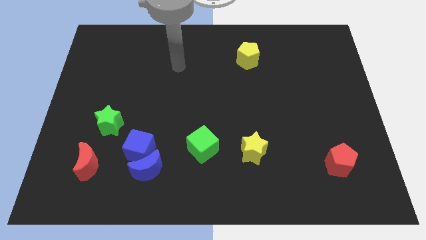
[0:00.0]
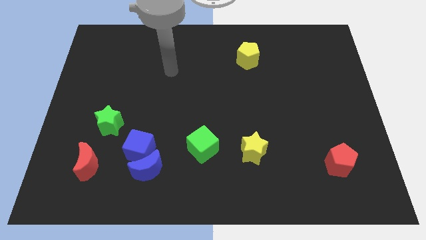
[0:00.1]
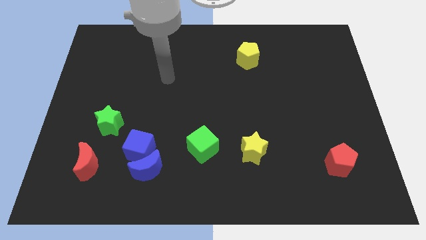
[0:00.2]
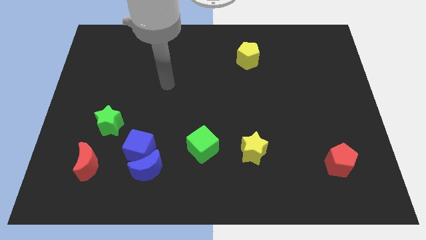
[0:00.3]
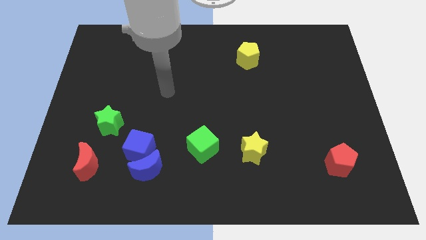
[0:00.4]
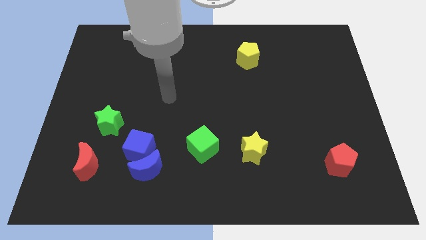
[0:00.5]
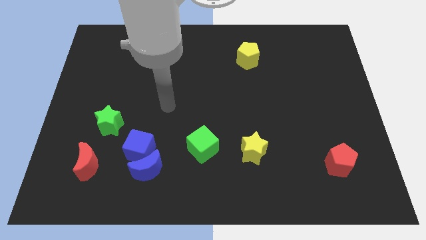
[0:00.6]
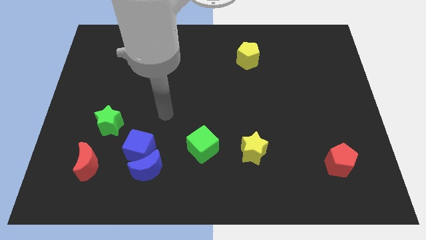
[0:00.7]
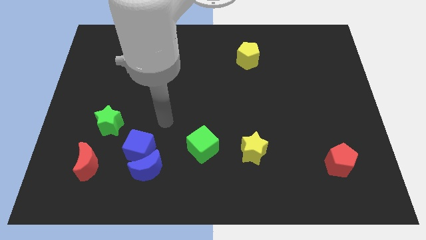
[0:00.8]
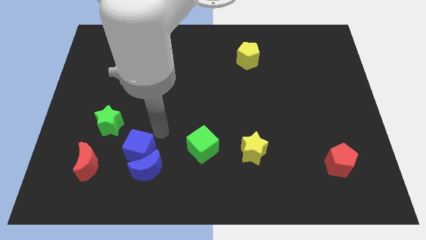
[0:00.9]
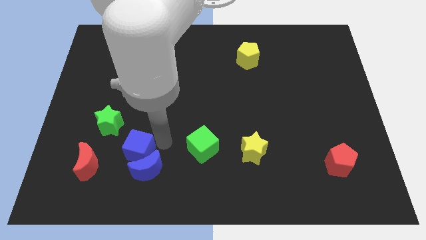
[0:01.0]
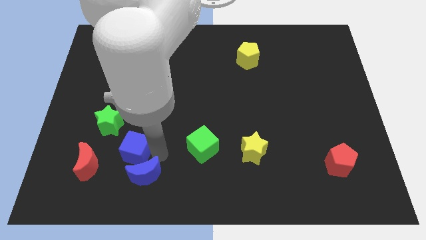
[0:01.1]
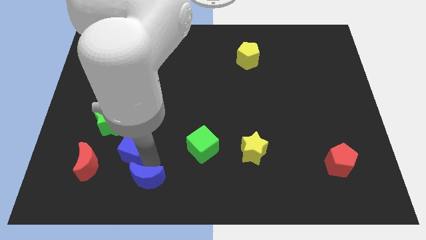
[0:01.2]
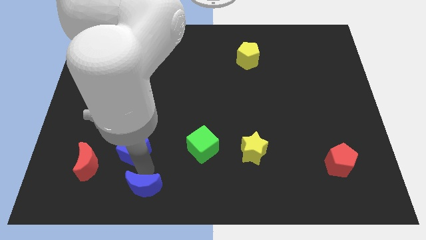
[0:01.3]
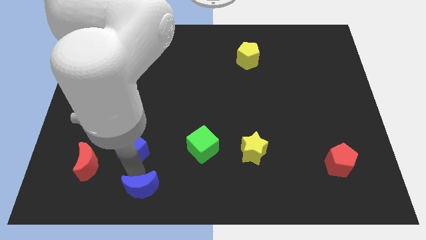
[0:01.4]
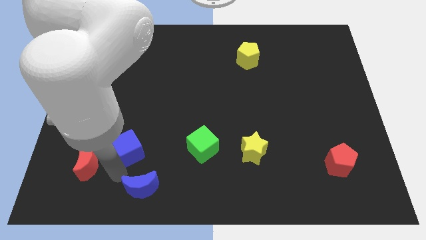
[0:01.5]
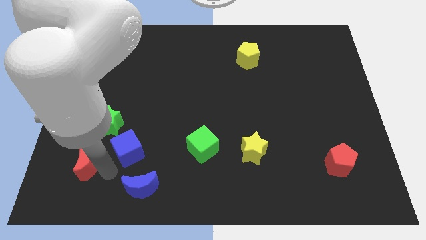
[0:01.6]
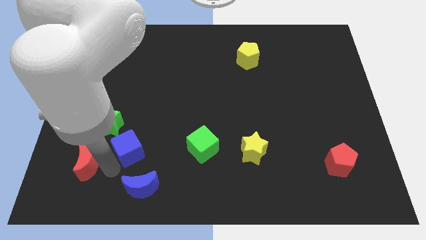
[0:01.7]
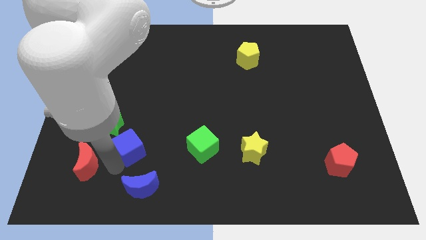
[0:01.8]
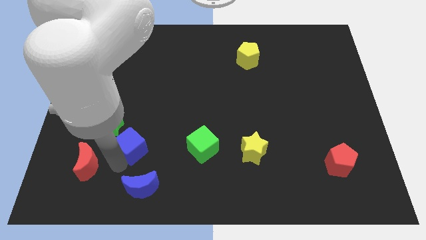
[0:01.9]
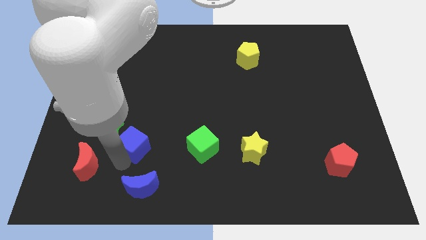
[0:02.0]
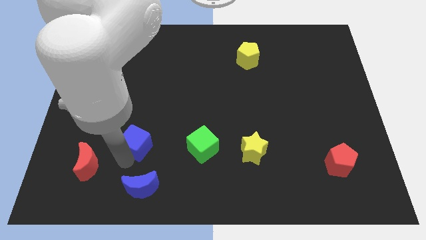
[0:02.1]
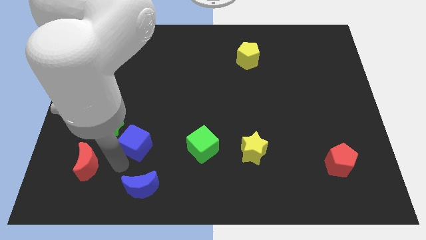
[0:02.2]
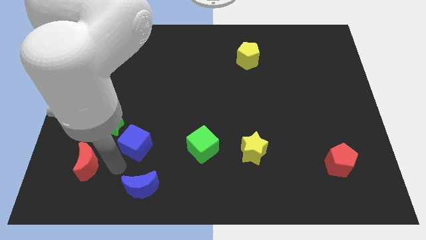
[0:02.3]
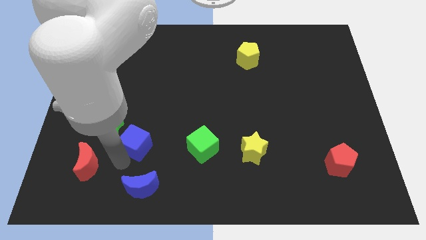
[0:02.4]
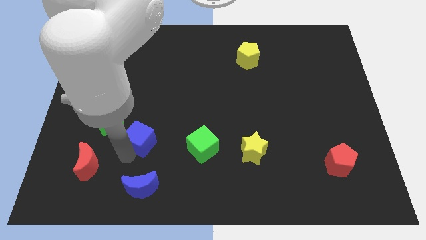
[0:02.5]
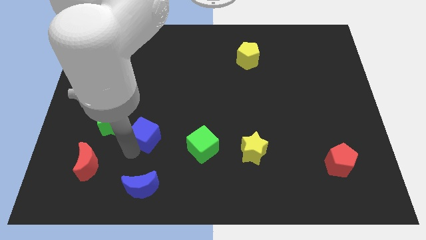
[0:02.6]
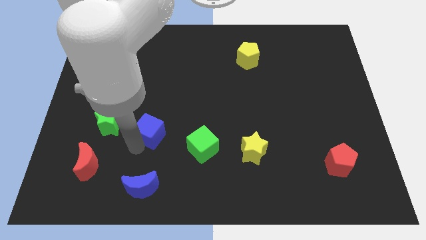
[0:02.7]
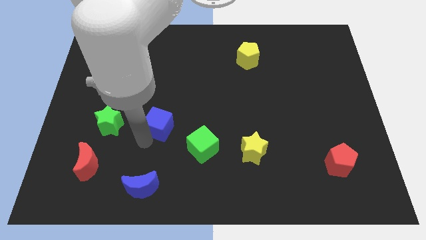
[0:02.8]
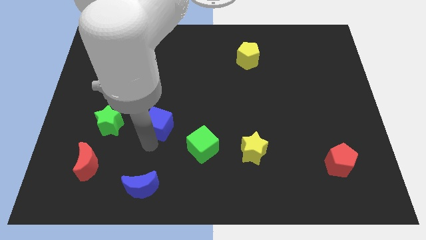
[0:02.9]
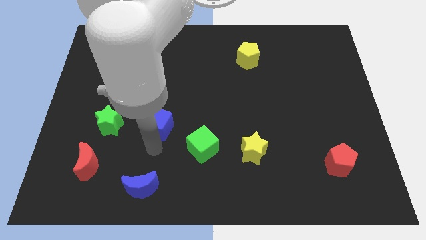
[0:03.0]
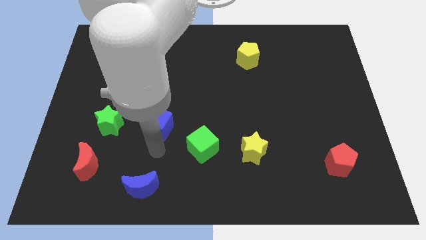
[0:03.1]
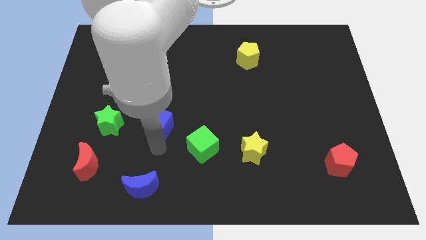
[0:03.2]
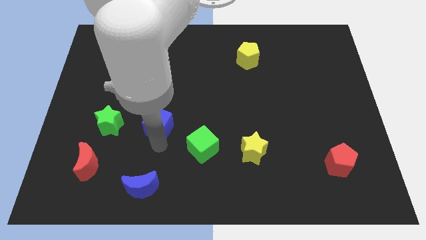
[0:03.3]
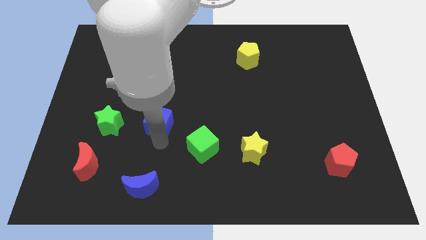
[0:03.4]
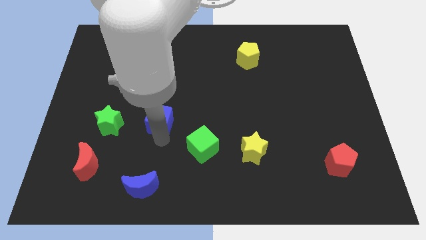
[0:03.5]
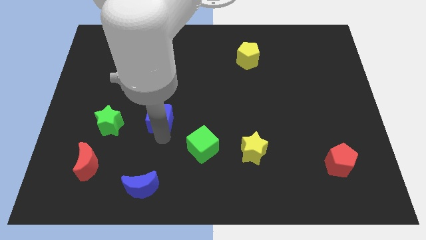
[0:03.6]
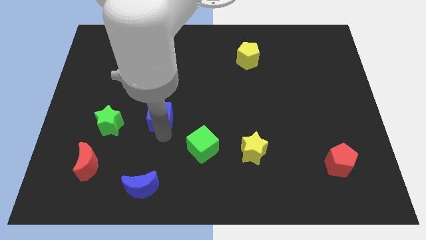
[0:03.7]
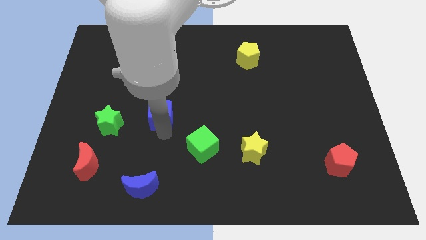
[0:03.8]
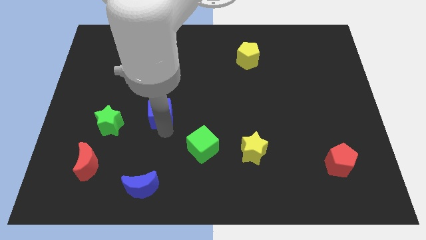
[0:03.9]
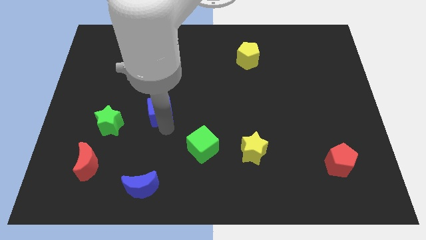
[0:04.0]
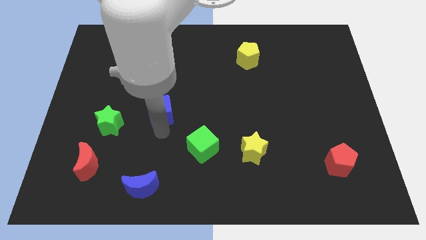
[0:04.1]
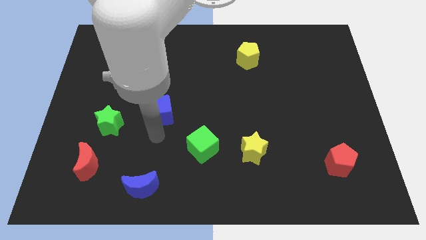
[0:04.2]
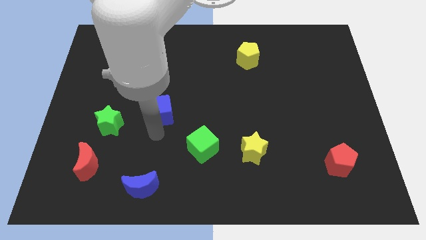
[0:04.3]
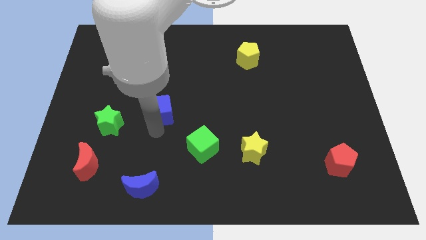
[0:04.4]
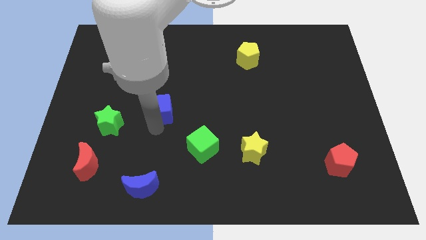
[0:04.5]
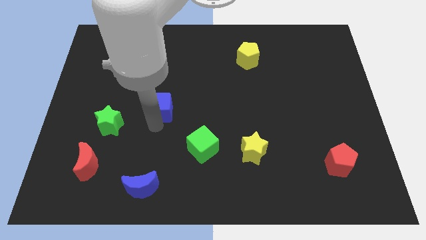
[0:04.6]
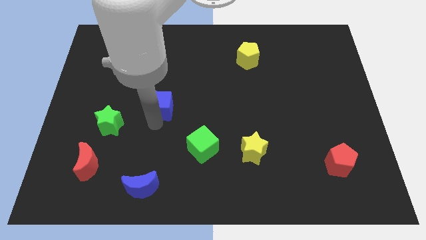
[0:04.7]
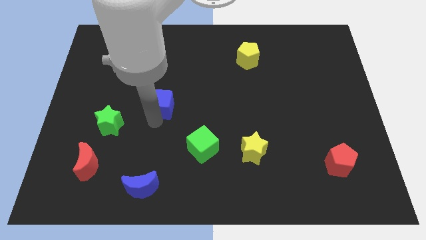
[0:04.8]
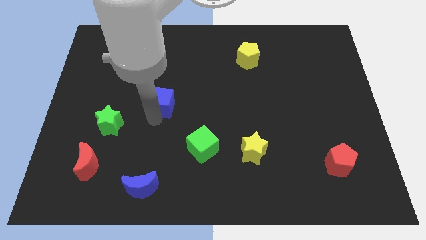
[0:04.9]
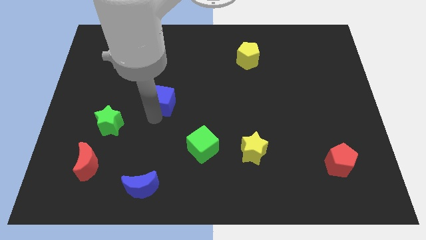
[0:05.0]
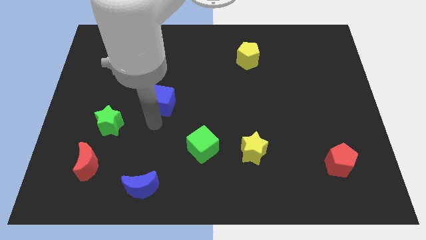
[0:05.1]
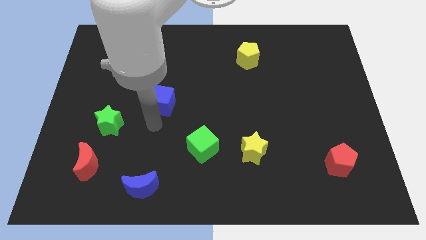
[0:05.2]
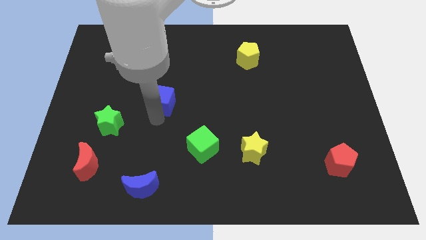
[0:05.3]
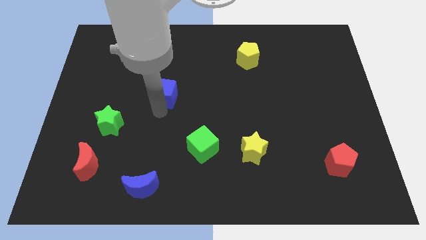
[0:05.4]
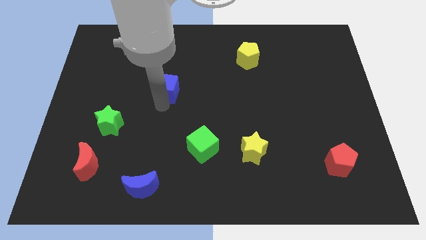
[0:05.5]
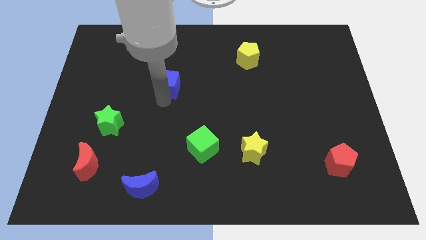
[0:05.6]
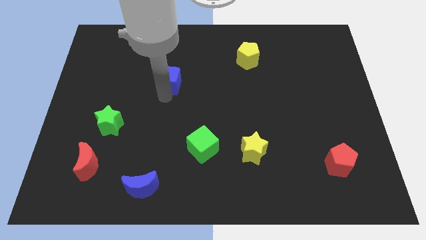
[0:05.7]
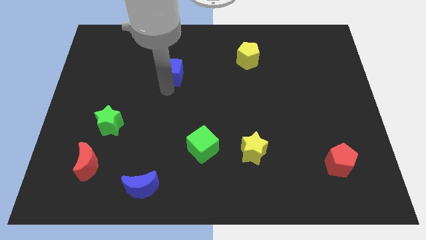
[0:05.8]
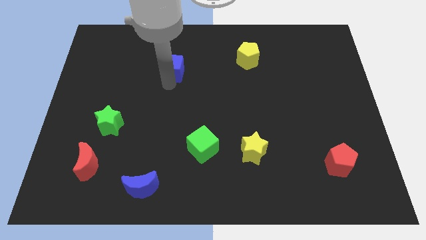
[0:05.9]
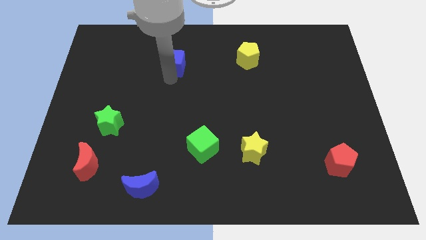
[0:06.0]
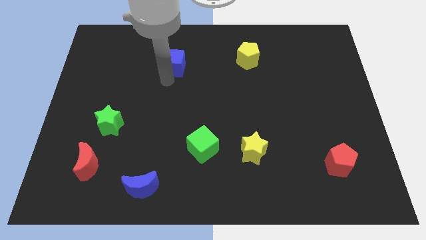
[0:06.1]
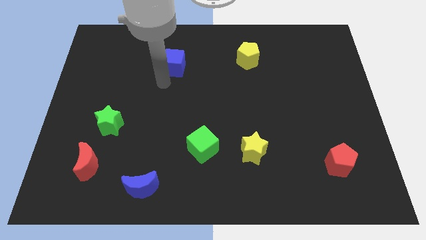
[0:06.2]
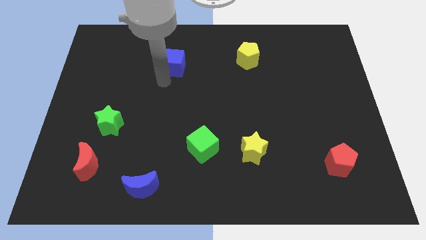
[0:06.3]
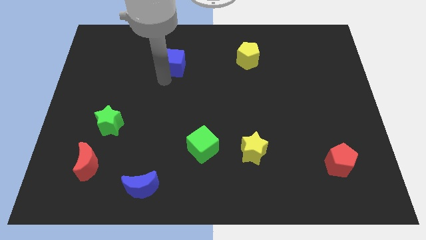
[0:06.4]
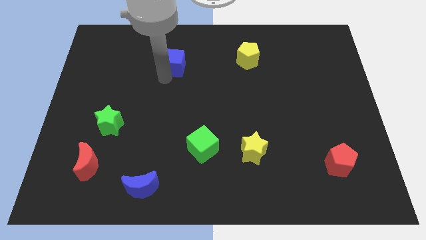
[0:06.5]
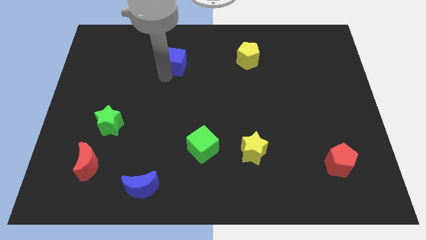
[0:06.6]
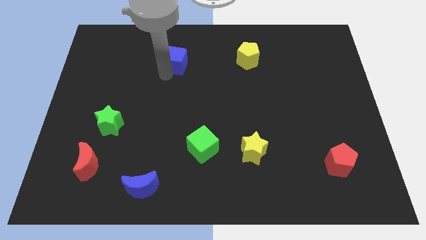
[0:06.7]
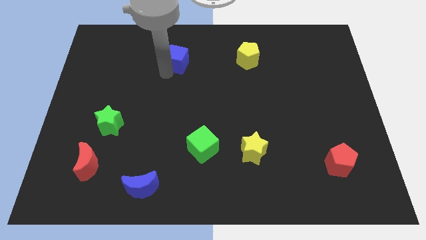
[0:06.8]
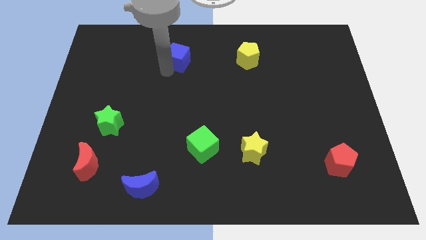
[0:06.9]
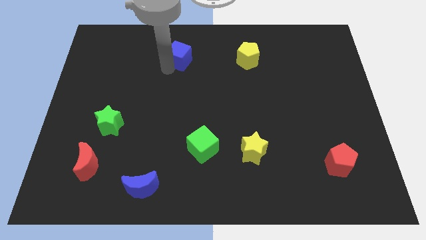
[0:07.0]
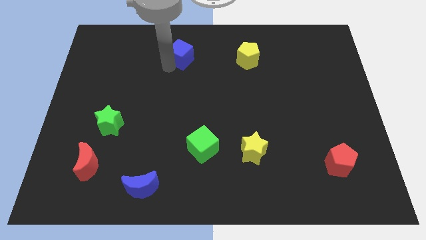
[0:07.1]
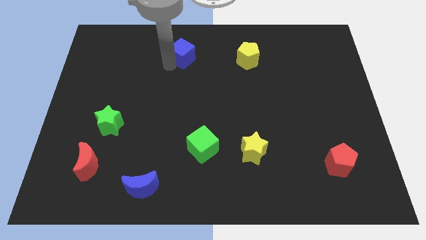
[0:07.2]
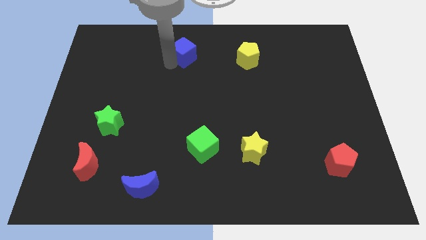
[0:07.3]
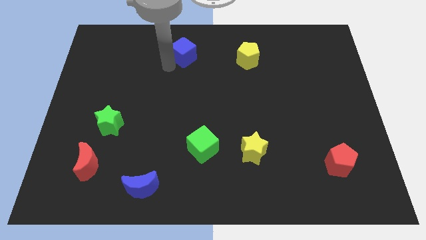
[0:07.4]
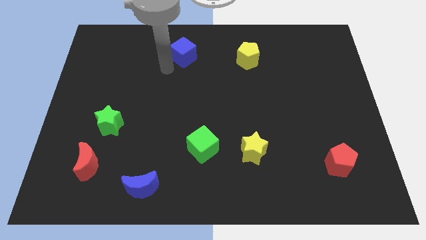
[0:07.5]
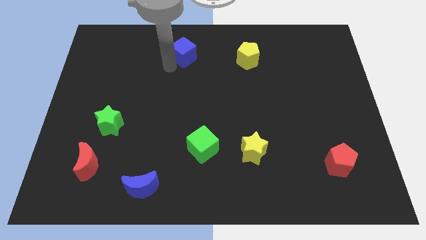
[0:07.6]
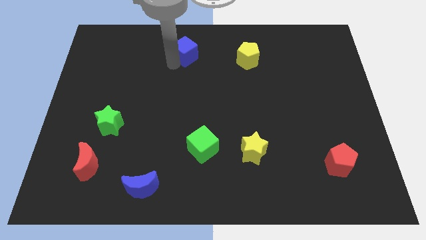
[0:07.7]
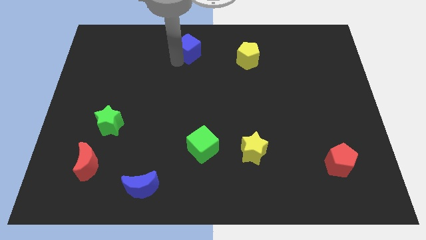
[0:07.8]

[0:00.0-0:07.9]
push the blue cube to the top

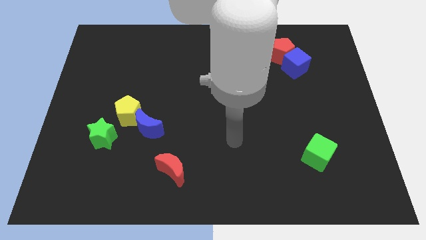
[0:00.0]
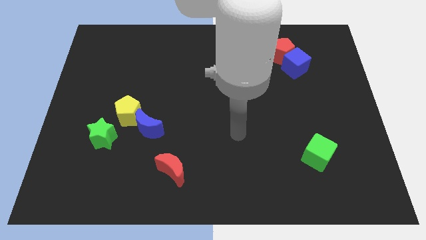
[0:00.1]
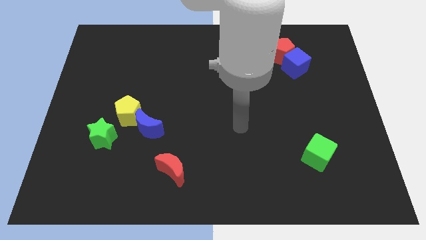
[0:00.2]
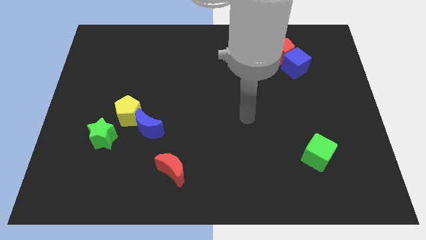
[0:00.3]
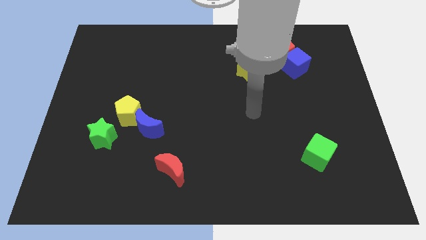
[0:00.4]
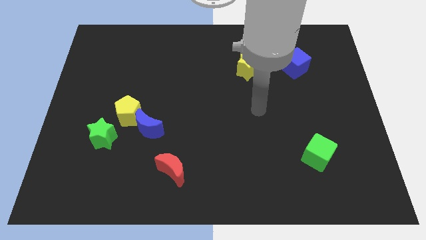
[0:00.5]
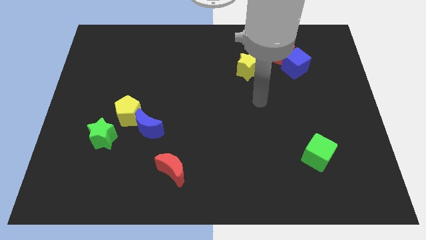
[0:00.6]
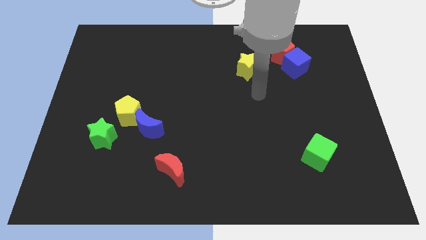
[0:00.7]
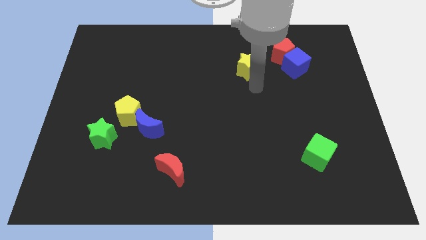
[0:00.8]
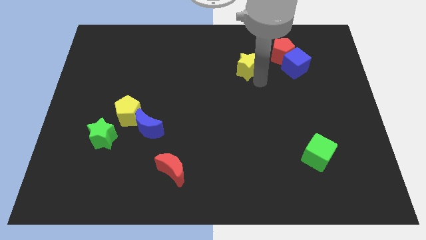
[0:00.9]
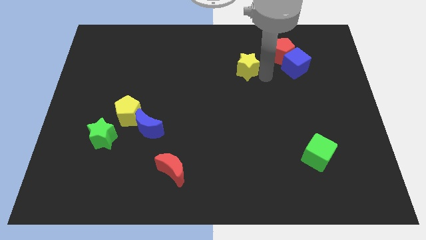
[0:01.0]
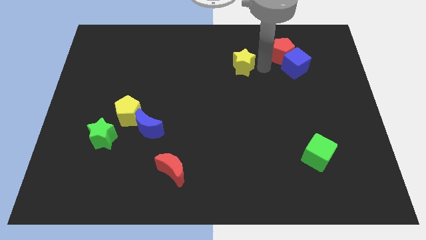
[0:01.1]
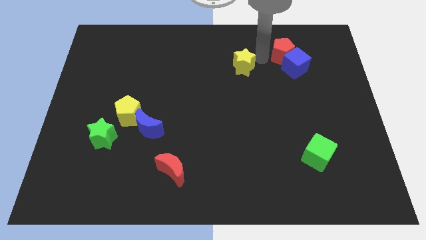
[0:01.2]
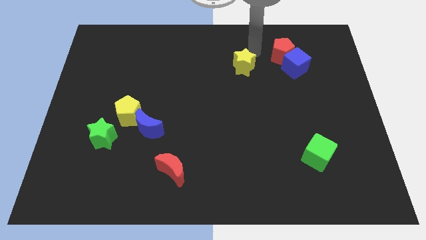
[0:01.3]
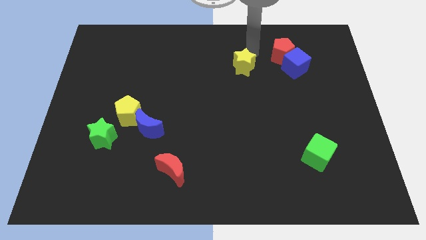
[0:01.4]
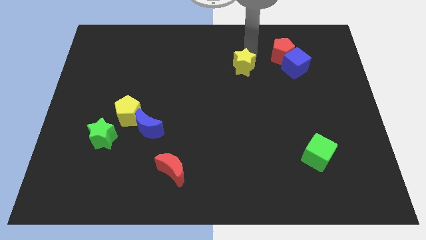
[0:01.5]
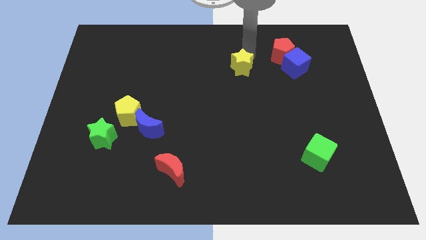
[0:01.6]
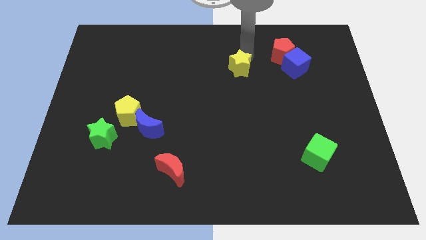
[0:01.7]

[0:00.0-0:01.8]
push the yellow star to the center
